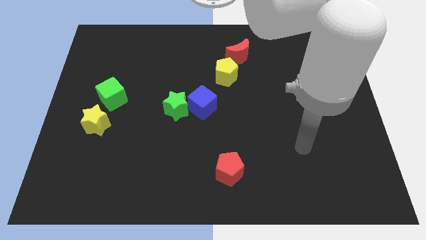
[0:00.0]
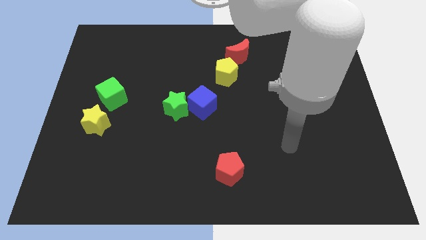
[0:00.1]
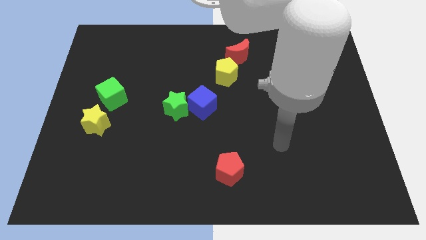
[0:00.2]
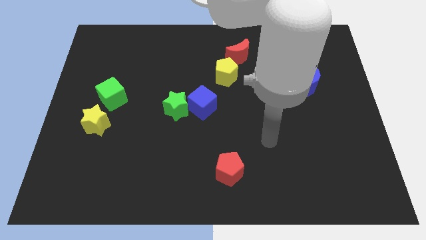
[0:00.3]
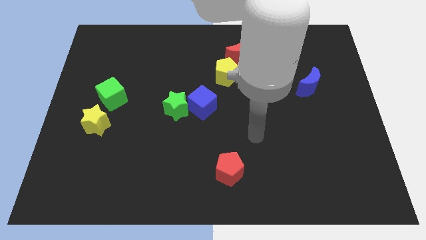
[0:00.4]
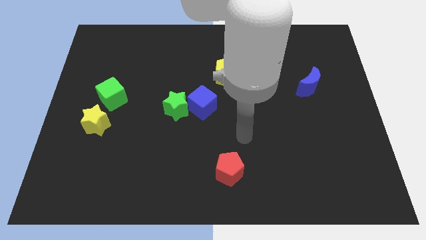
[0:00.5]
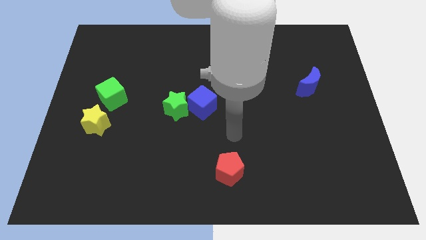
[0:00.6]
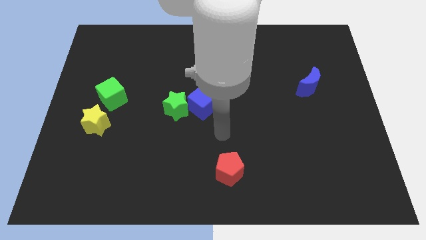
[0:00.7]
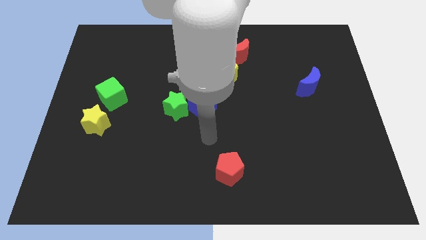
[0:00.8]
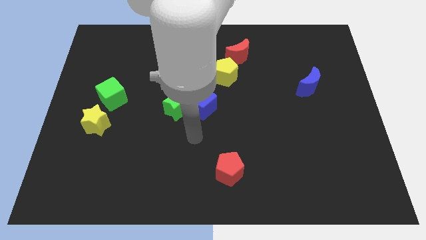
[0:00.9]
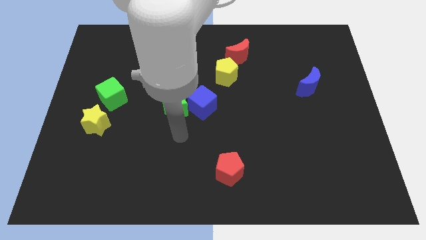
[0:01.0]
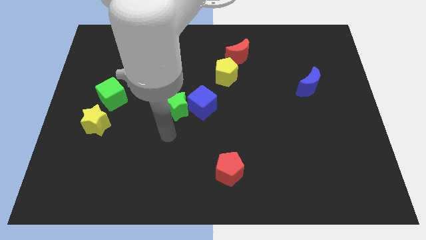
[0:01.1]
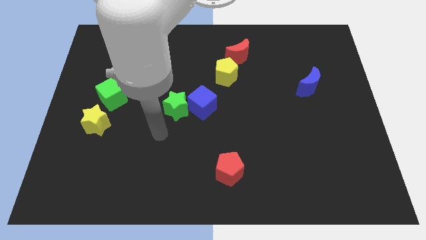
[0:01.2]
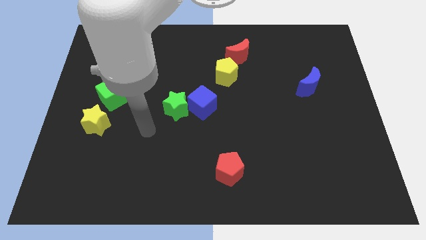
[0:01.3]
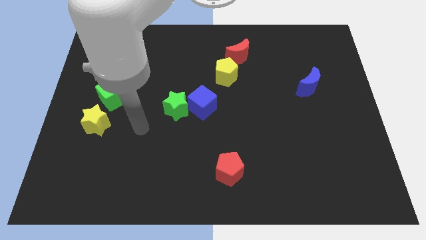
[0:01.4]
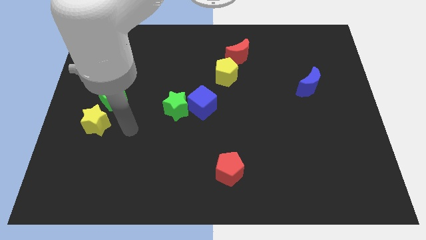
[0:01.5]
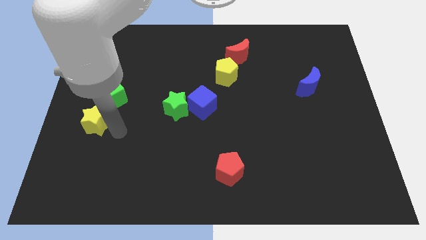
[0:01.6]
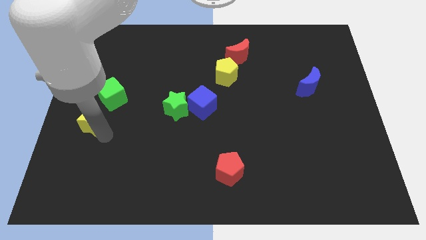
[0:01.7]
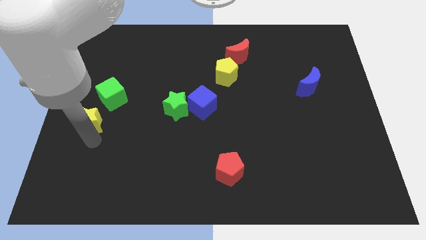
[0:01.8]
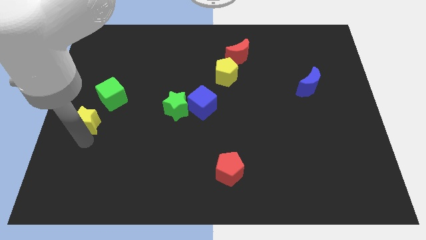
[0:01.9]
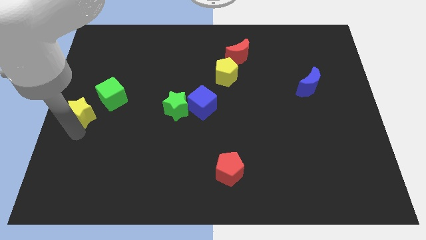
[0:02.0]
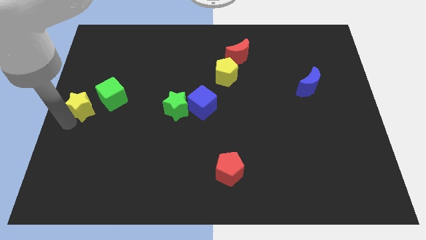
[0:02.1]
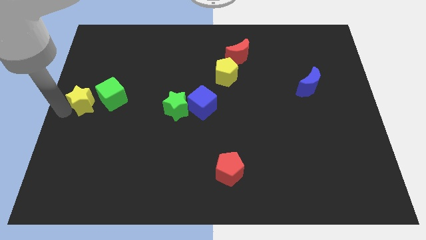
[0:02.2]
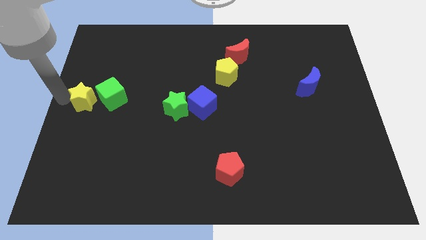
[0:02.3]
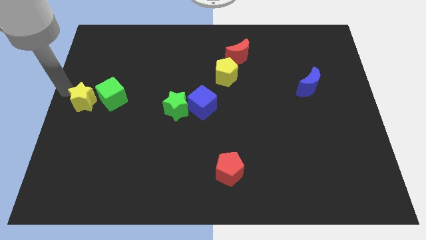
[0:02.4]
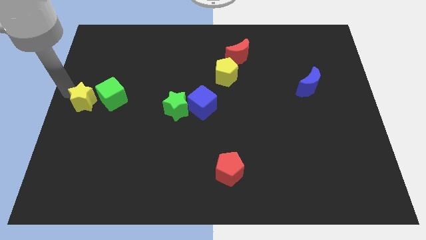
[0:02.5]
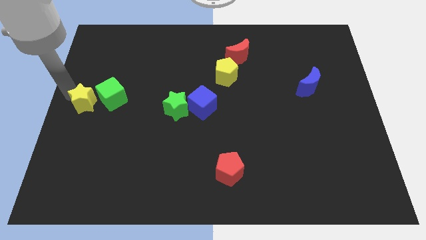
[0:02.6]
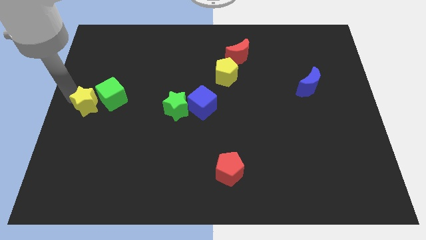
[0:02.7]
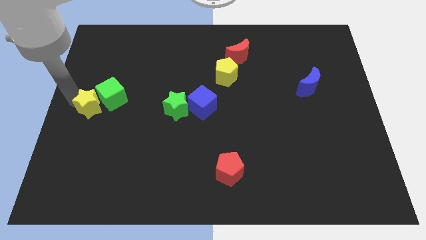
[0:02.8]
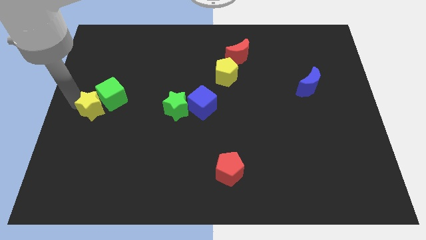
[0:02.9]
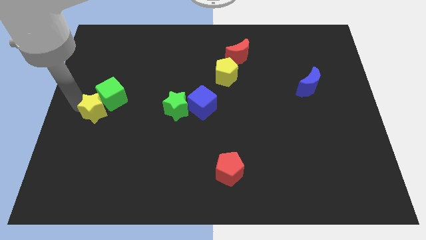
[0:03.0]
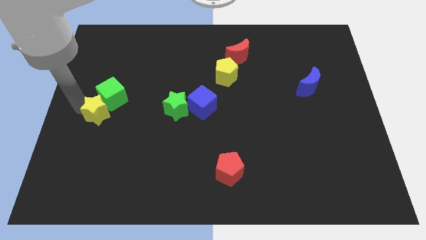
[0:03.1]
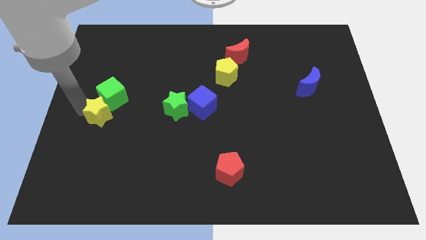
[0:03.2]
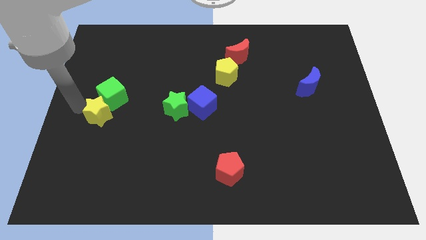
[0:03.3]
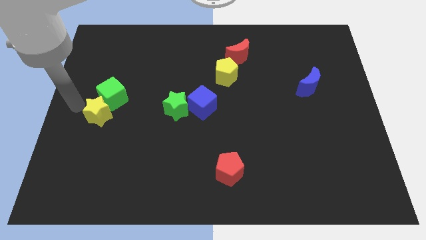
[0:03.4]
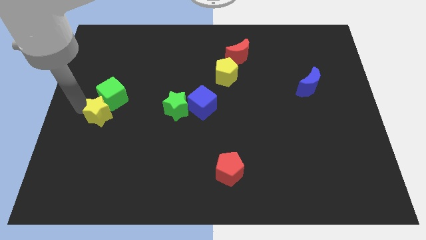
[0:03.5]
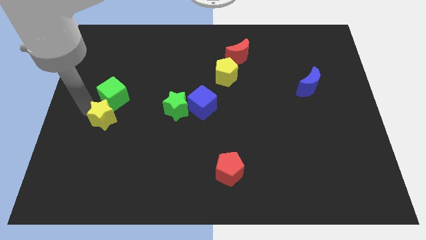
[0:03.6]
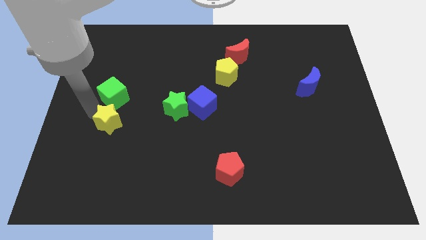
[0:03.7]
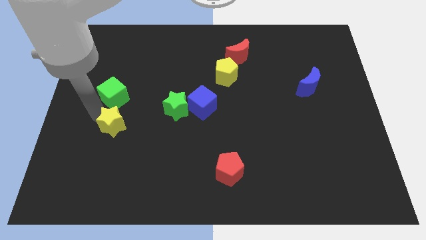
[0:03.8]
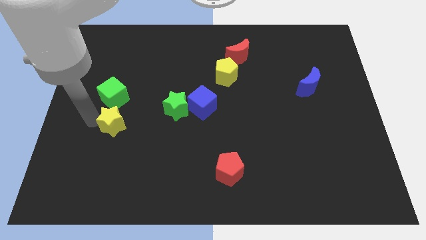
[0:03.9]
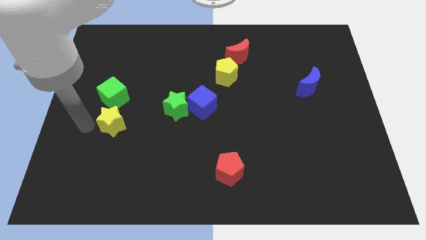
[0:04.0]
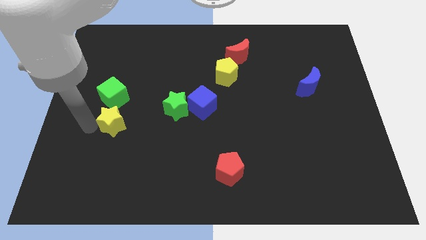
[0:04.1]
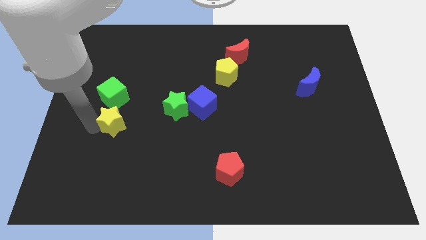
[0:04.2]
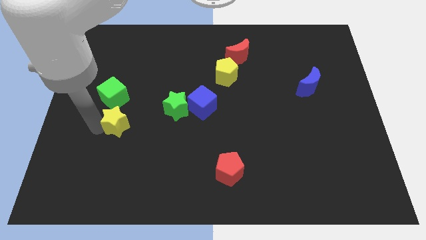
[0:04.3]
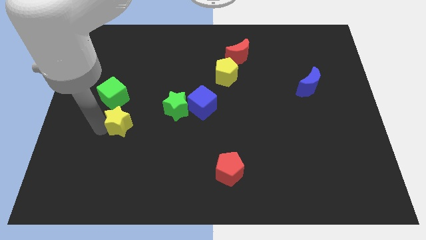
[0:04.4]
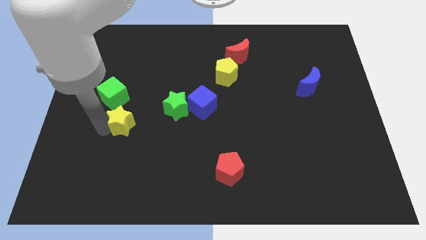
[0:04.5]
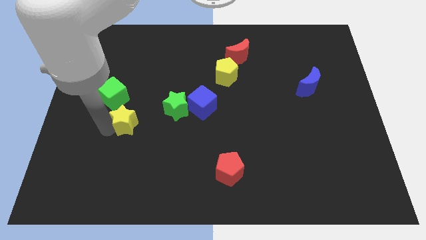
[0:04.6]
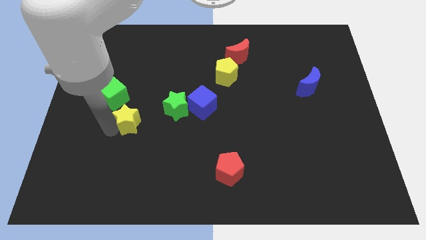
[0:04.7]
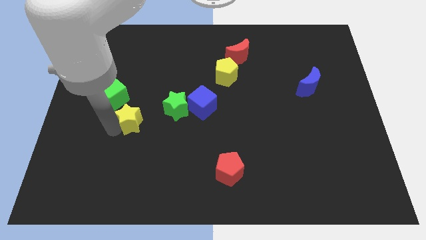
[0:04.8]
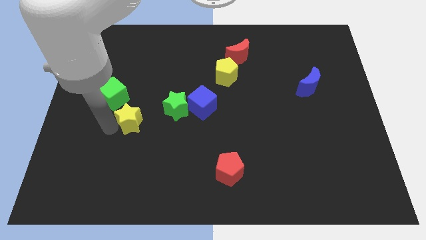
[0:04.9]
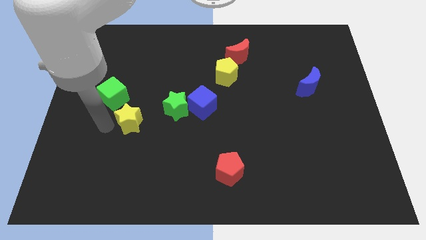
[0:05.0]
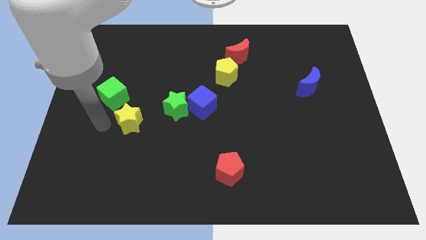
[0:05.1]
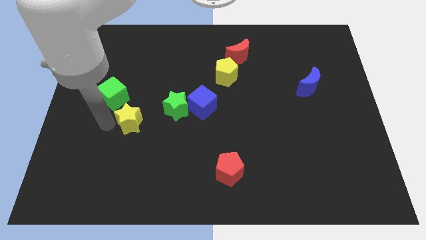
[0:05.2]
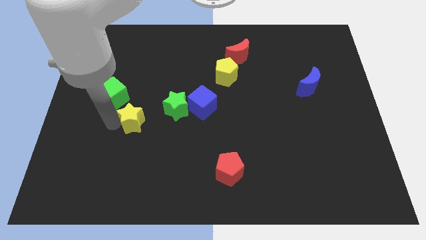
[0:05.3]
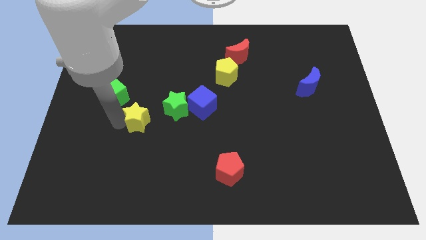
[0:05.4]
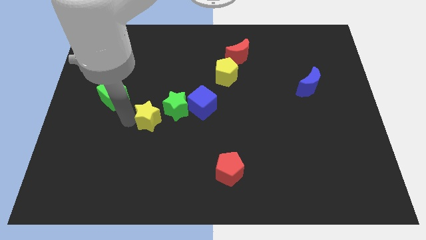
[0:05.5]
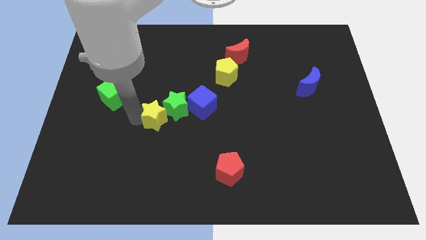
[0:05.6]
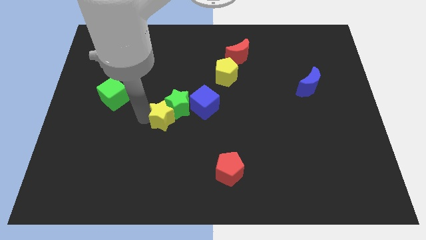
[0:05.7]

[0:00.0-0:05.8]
push the yellow star to the bottom left of the blue cube

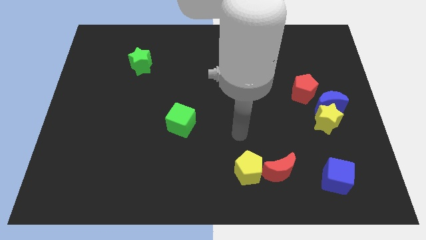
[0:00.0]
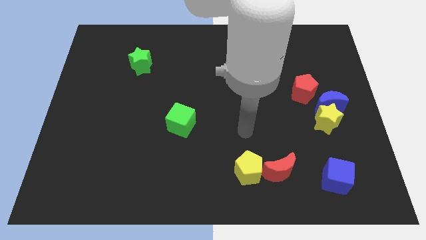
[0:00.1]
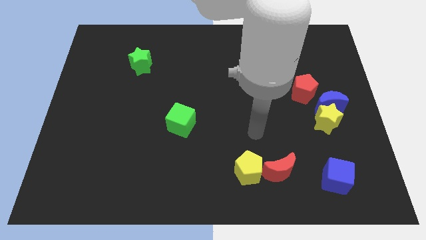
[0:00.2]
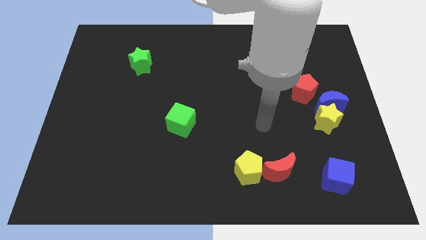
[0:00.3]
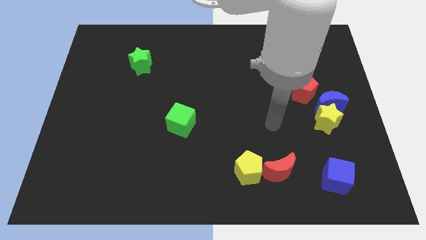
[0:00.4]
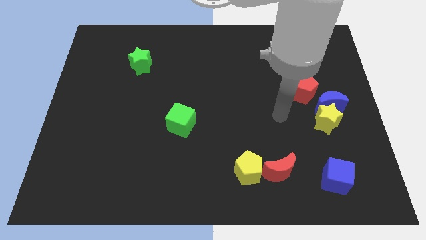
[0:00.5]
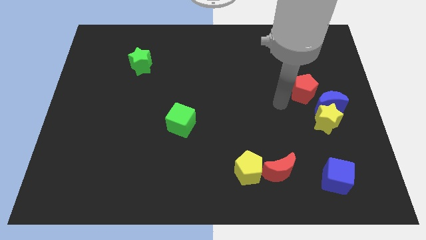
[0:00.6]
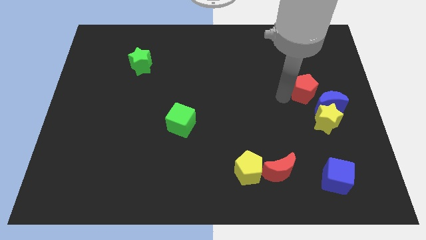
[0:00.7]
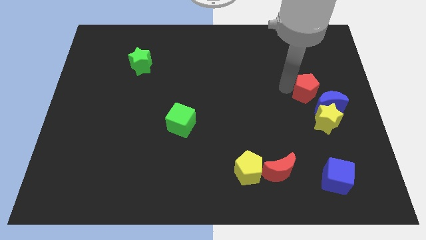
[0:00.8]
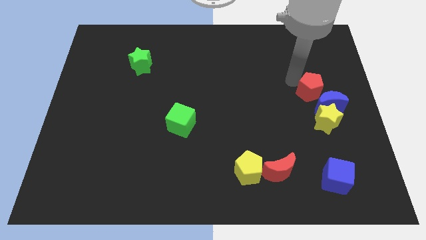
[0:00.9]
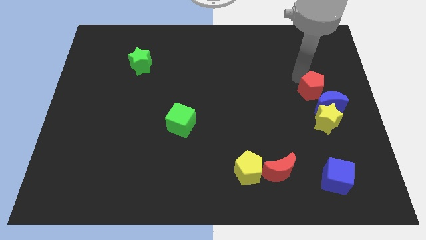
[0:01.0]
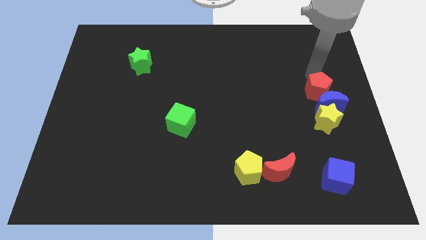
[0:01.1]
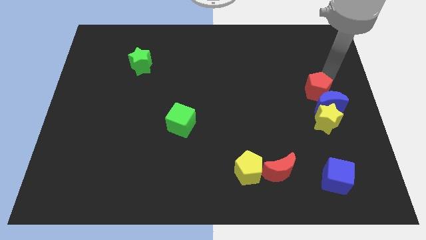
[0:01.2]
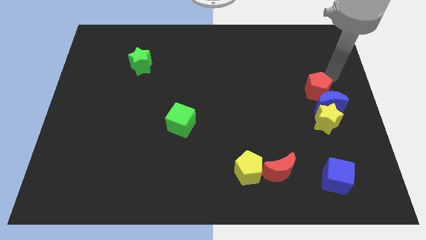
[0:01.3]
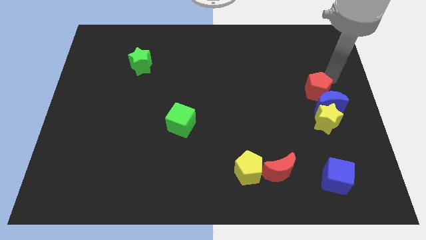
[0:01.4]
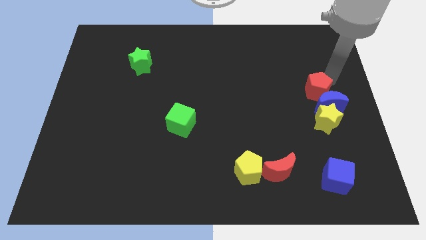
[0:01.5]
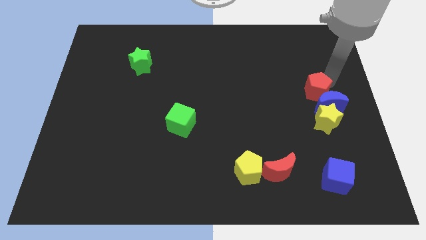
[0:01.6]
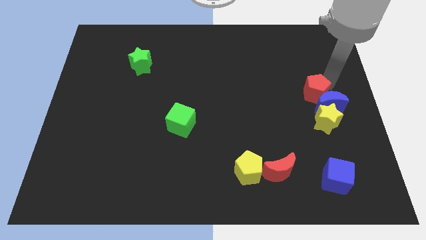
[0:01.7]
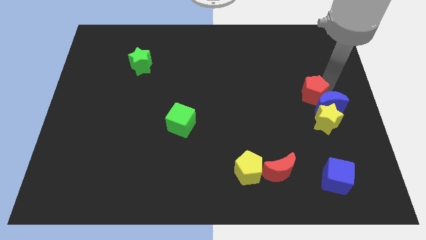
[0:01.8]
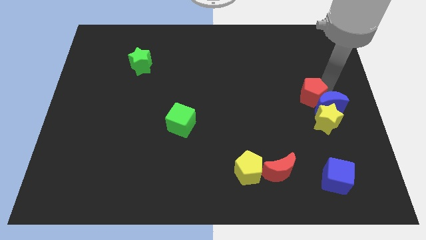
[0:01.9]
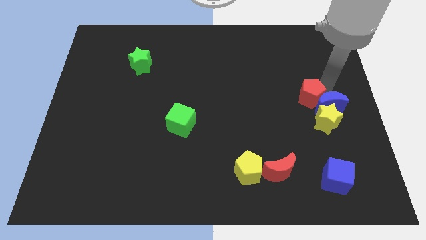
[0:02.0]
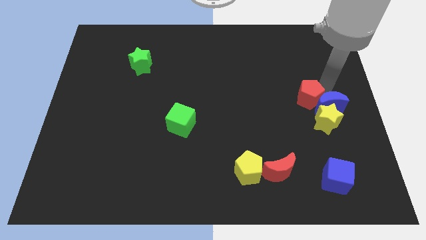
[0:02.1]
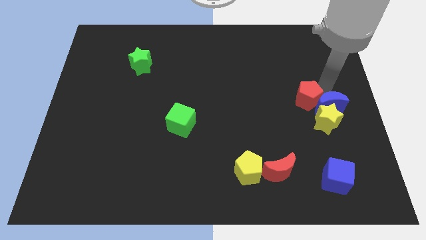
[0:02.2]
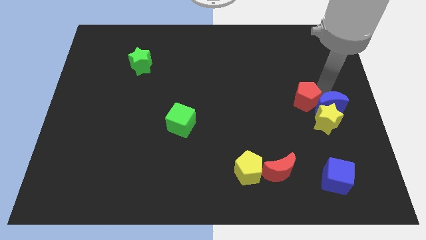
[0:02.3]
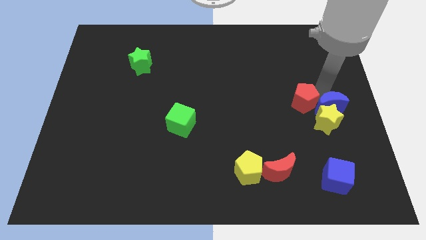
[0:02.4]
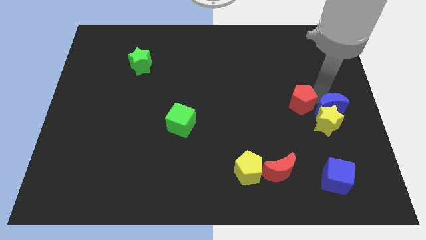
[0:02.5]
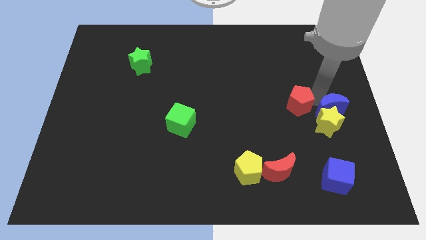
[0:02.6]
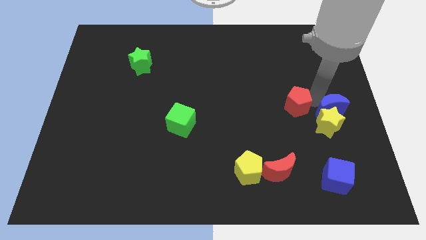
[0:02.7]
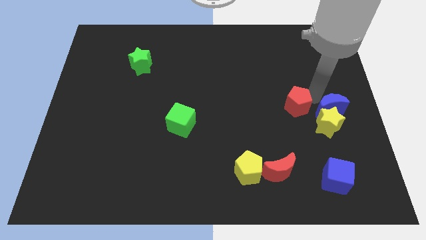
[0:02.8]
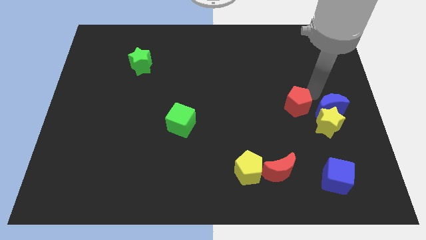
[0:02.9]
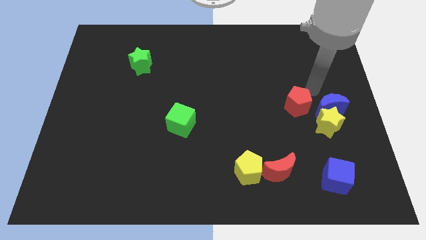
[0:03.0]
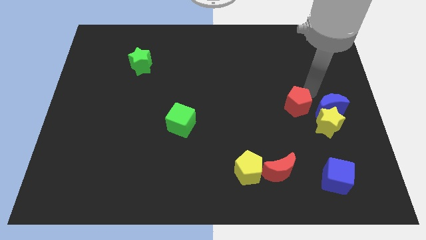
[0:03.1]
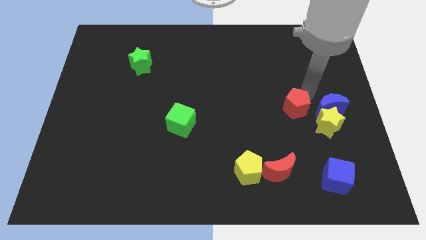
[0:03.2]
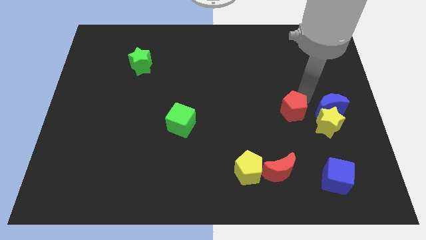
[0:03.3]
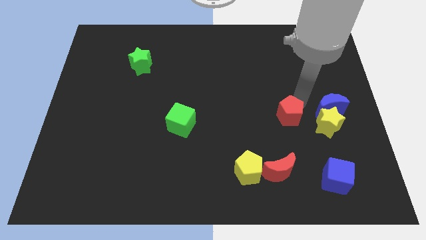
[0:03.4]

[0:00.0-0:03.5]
push the red pentagon to the top side of the red moon
